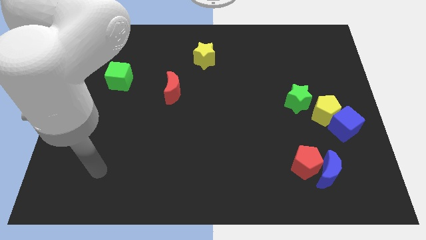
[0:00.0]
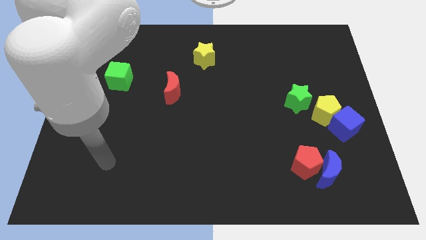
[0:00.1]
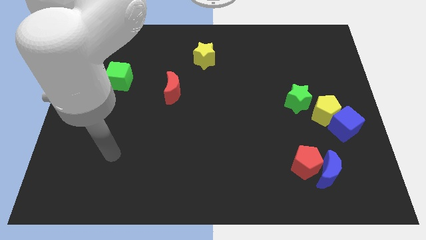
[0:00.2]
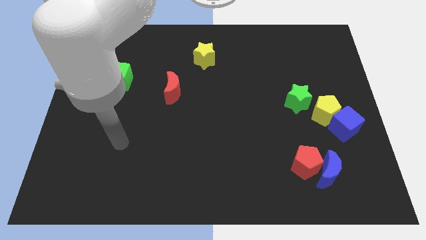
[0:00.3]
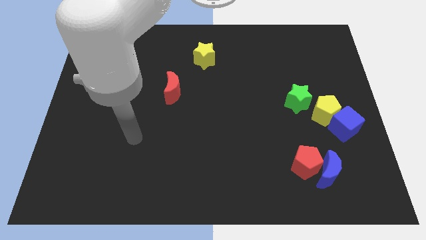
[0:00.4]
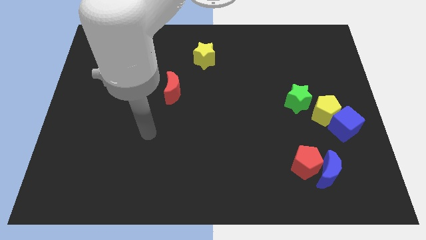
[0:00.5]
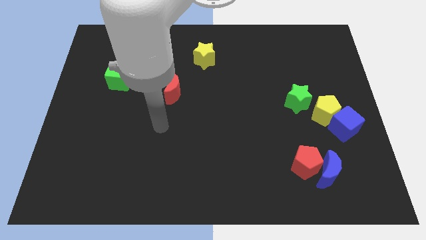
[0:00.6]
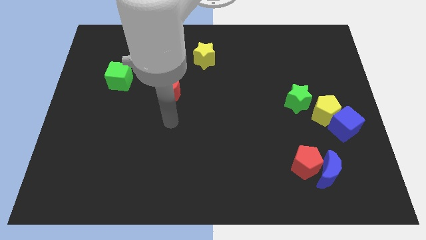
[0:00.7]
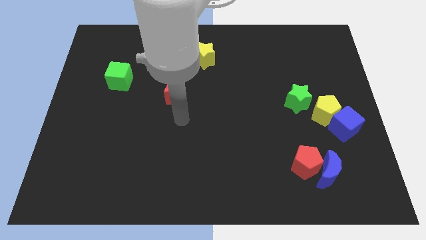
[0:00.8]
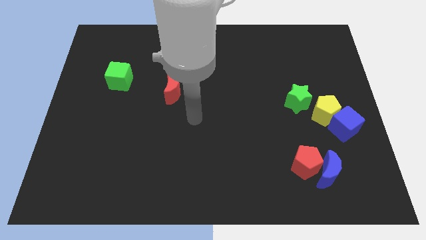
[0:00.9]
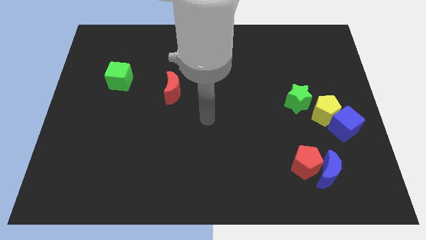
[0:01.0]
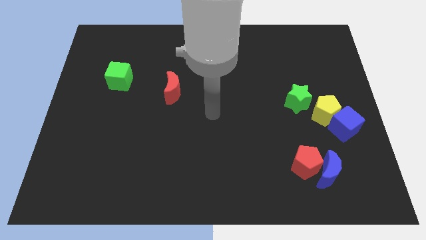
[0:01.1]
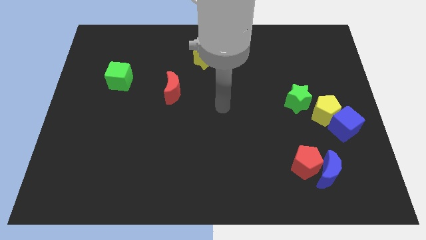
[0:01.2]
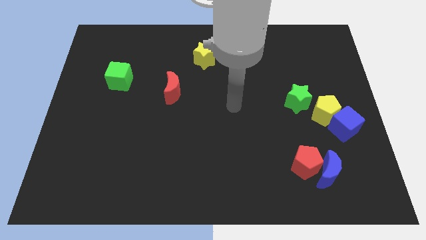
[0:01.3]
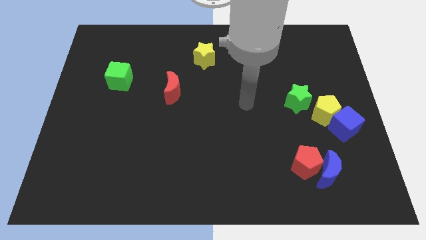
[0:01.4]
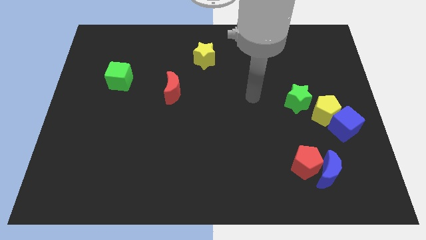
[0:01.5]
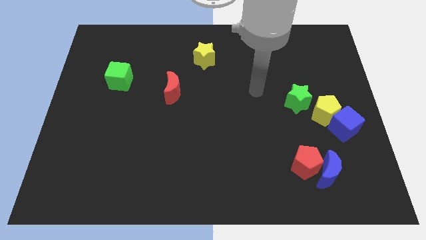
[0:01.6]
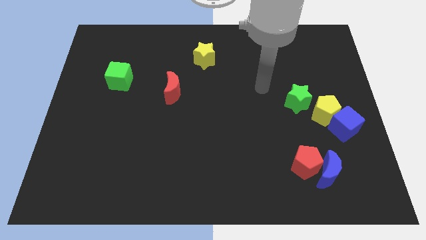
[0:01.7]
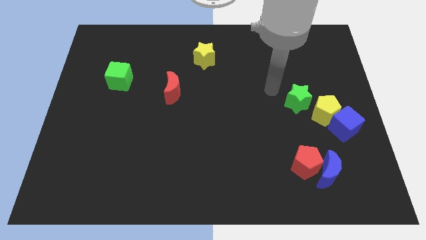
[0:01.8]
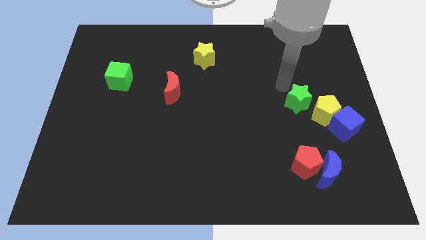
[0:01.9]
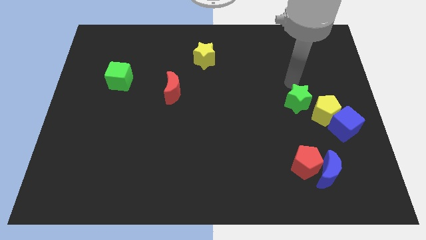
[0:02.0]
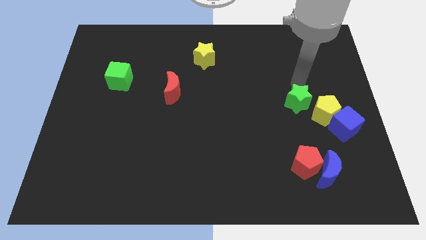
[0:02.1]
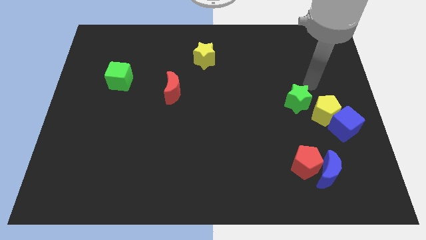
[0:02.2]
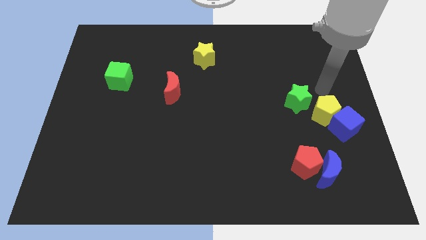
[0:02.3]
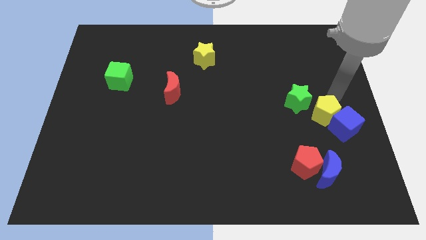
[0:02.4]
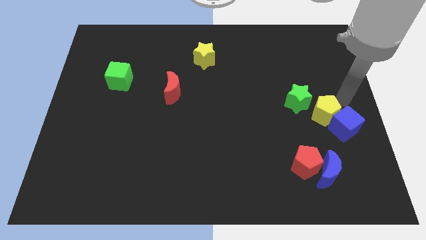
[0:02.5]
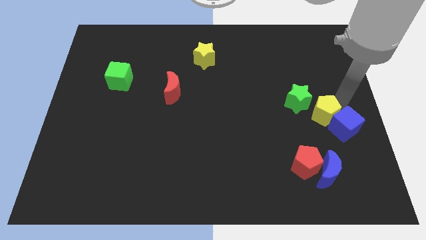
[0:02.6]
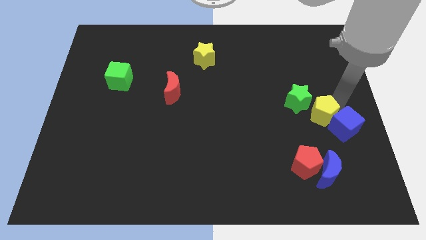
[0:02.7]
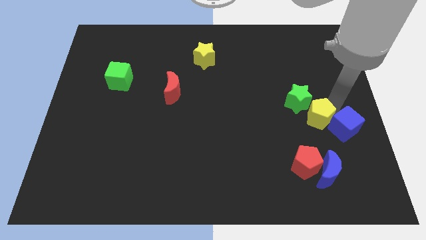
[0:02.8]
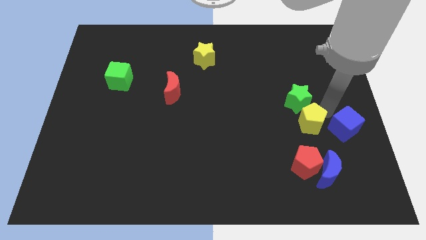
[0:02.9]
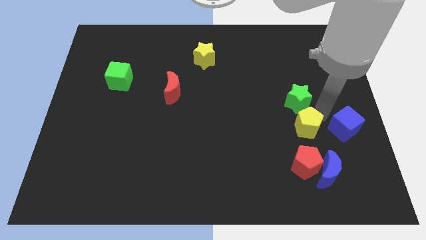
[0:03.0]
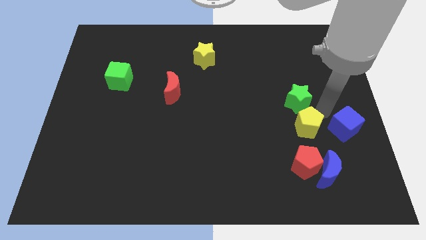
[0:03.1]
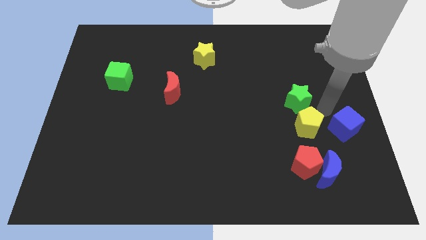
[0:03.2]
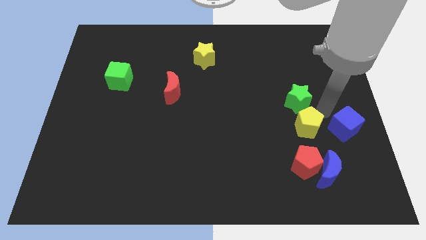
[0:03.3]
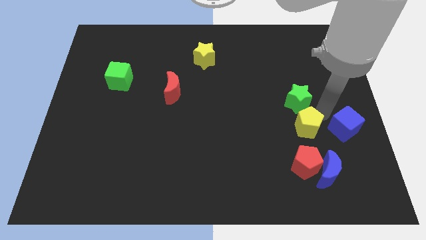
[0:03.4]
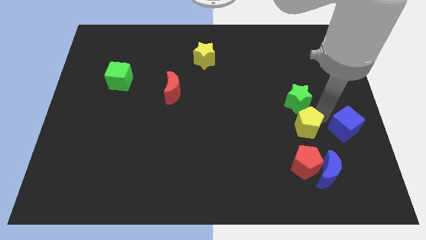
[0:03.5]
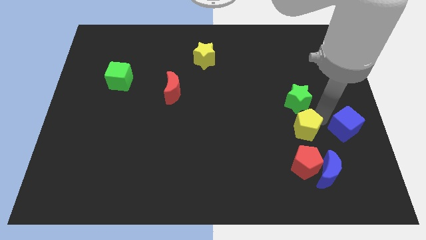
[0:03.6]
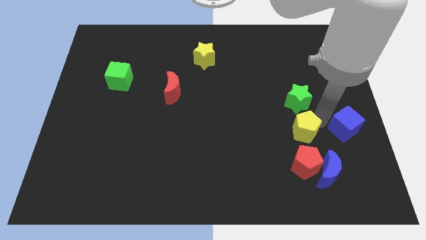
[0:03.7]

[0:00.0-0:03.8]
slightly move the yellow pentagon downwards and to the left diagonally

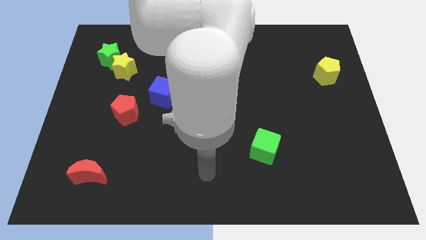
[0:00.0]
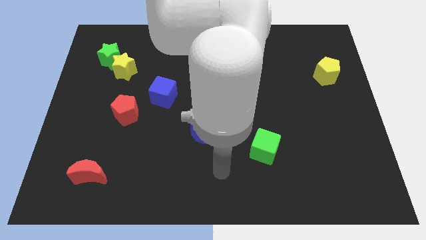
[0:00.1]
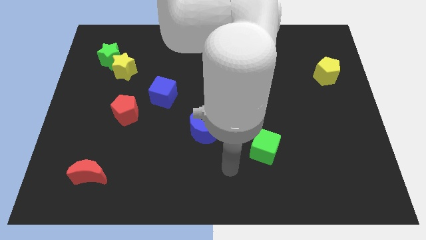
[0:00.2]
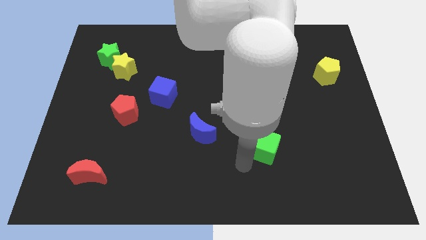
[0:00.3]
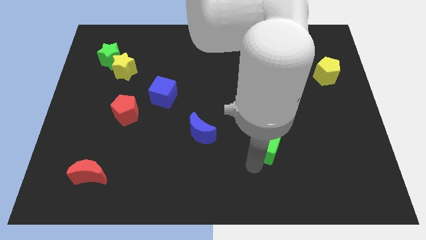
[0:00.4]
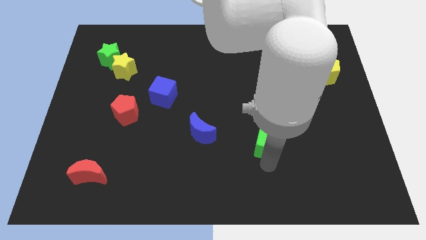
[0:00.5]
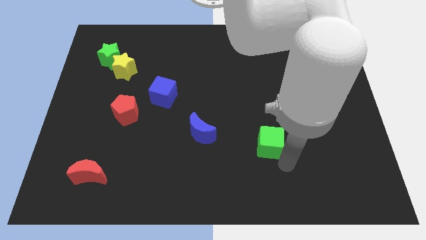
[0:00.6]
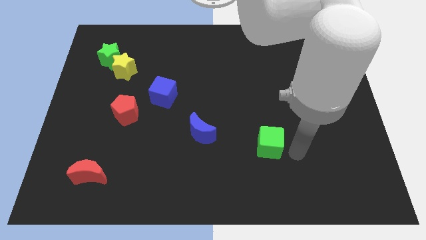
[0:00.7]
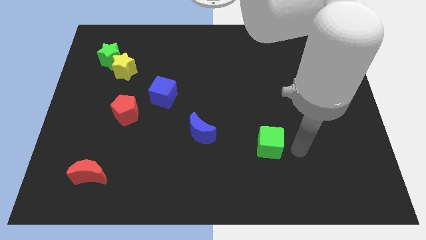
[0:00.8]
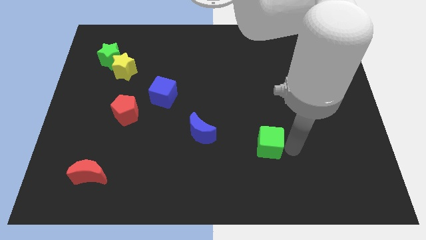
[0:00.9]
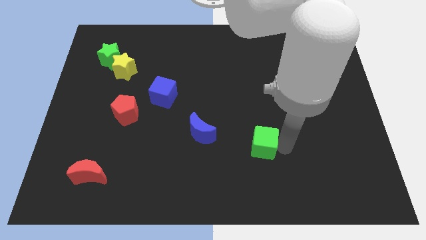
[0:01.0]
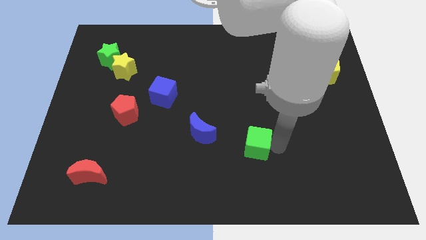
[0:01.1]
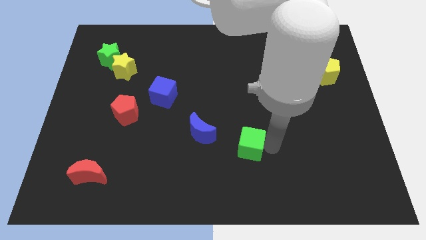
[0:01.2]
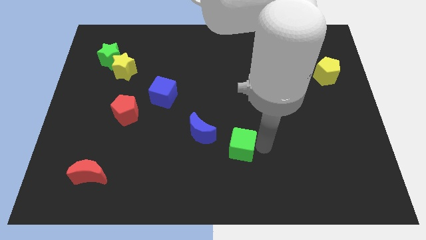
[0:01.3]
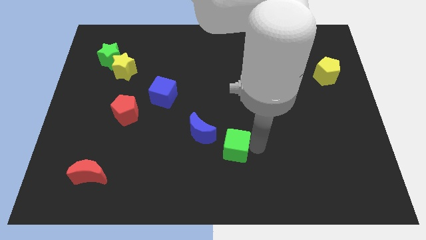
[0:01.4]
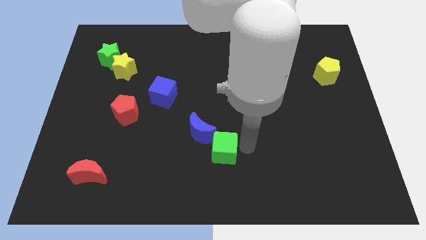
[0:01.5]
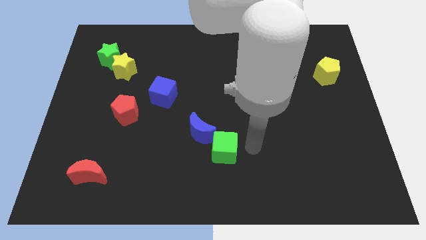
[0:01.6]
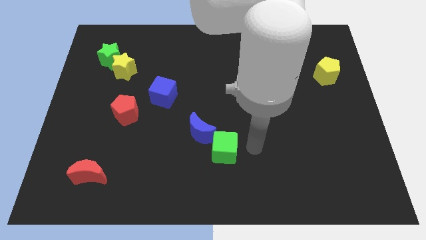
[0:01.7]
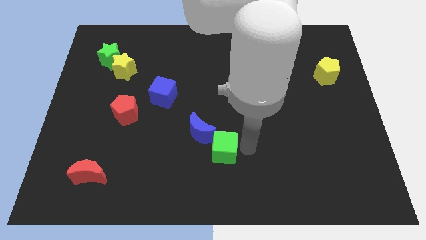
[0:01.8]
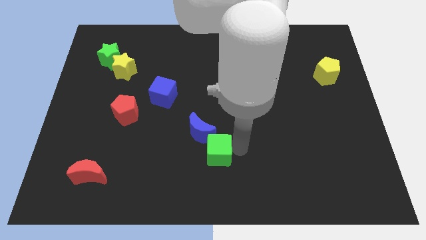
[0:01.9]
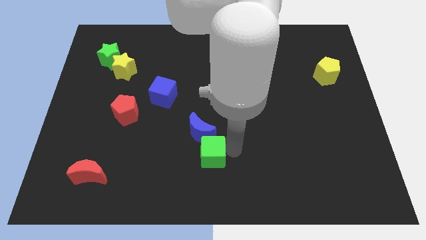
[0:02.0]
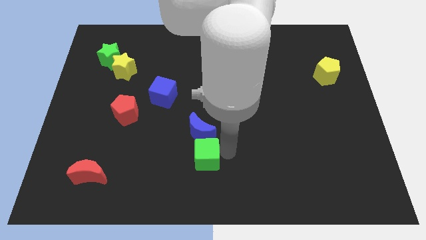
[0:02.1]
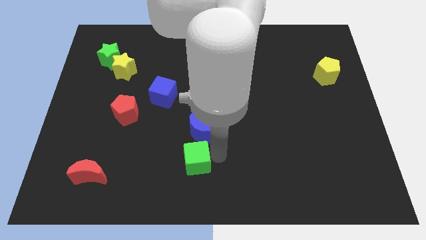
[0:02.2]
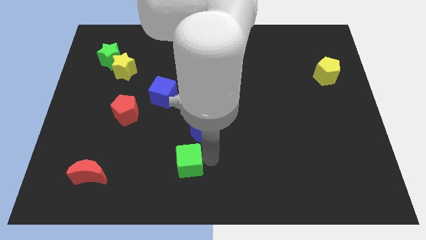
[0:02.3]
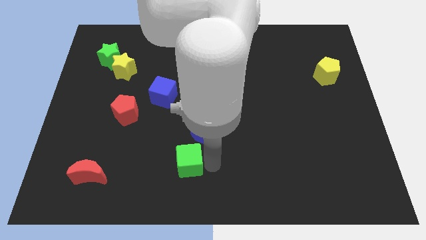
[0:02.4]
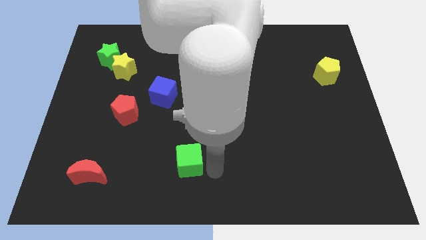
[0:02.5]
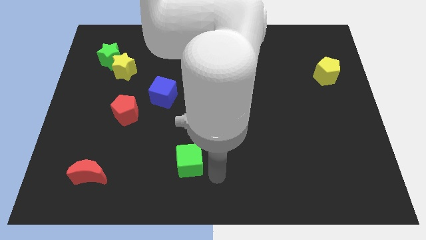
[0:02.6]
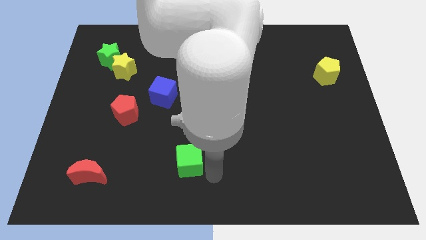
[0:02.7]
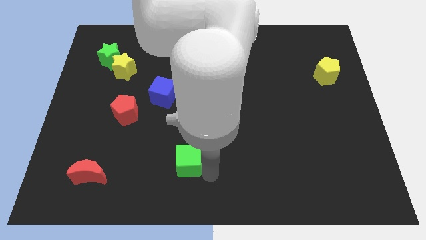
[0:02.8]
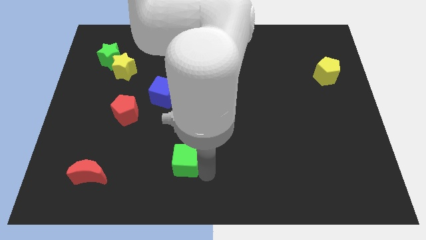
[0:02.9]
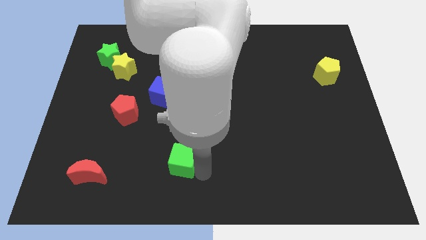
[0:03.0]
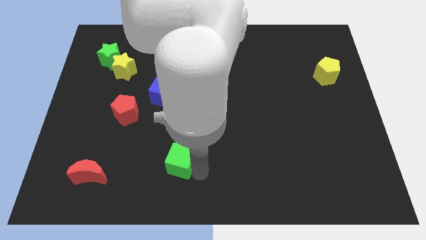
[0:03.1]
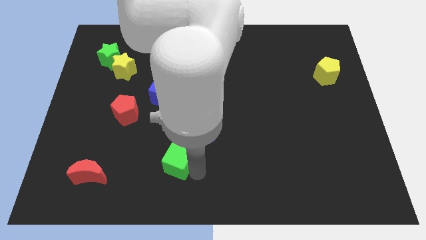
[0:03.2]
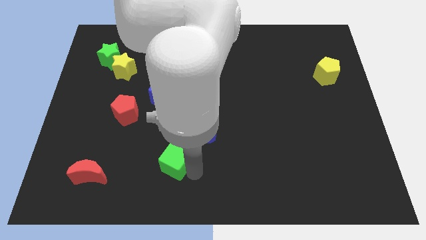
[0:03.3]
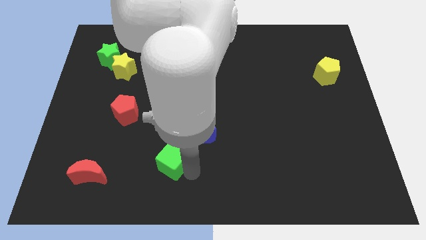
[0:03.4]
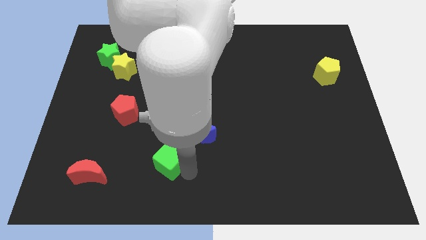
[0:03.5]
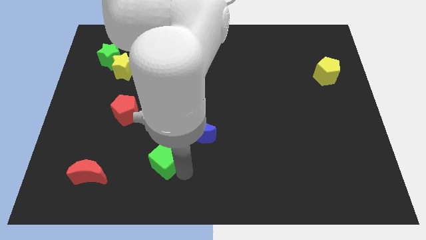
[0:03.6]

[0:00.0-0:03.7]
push the green cube to the left
